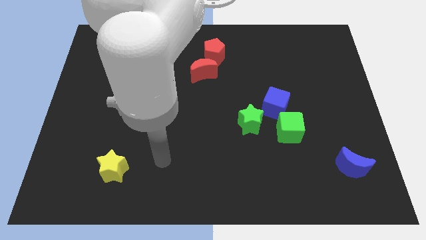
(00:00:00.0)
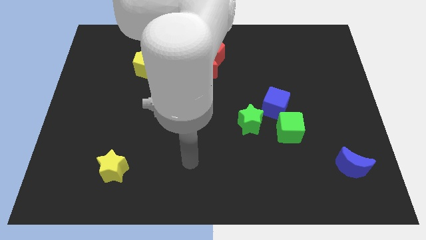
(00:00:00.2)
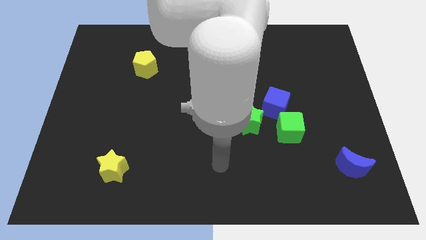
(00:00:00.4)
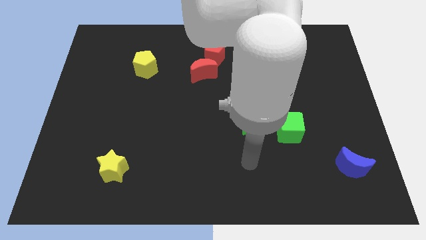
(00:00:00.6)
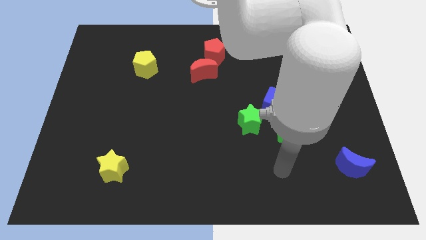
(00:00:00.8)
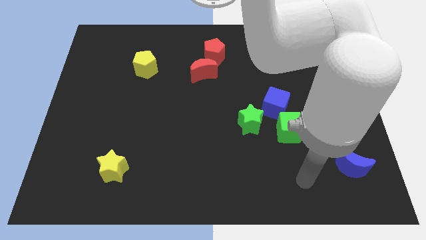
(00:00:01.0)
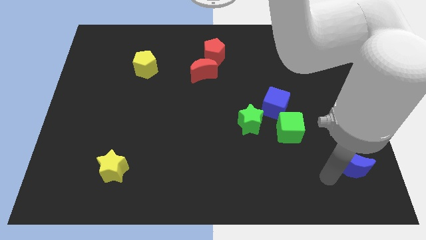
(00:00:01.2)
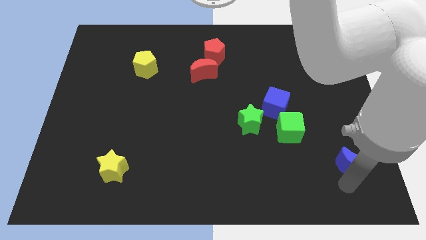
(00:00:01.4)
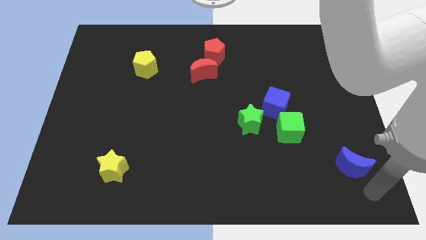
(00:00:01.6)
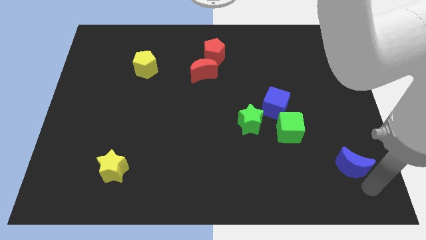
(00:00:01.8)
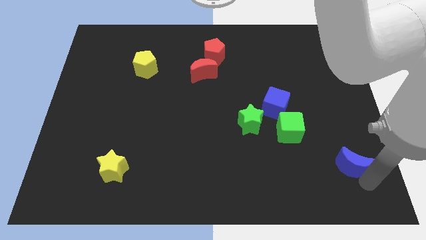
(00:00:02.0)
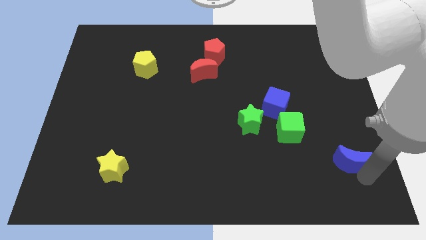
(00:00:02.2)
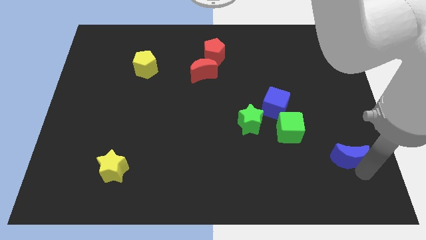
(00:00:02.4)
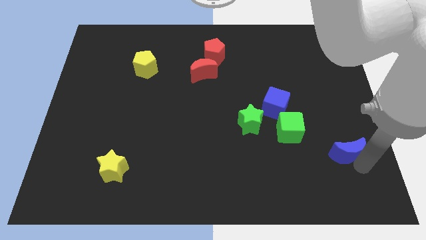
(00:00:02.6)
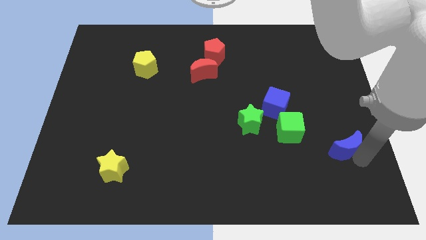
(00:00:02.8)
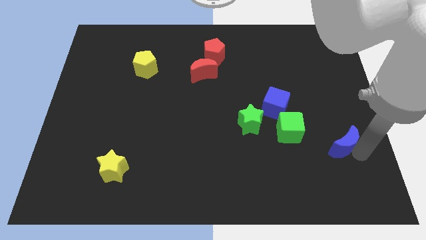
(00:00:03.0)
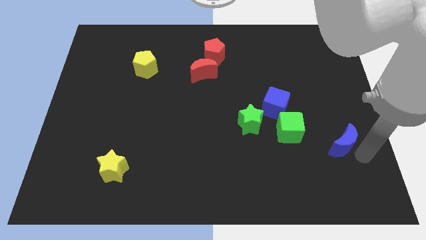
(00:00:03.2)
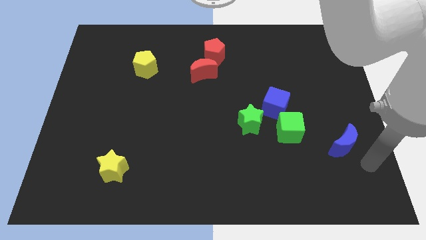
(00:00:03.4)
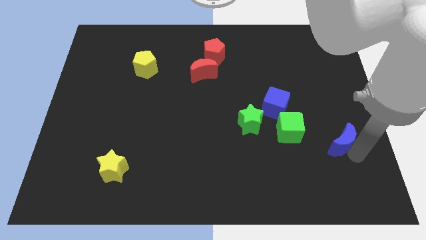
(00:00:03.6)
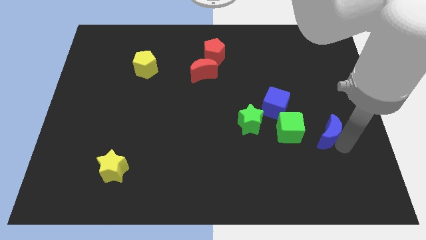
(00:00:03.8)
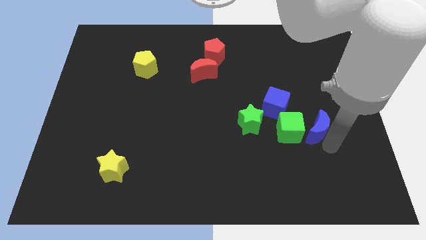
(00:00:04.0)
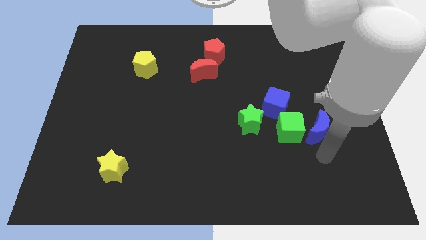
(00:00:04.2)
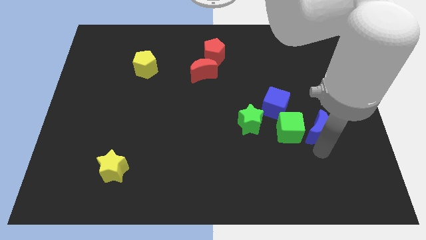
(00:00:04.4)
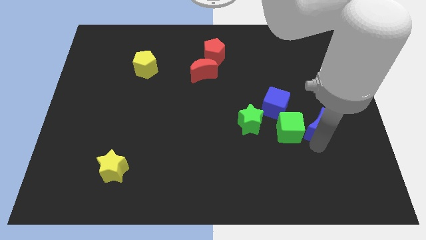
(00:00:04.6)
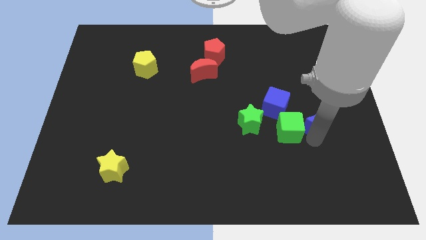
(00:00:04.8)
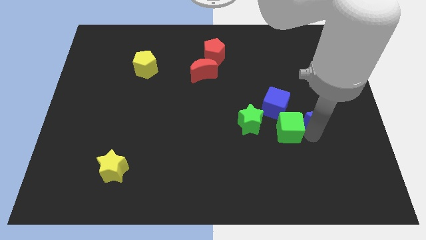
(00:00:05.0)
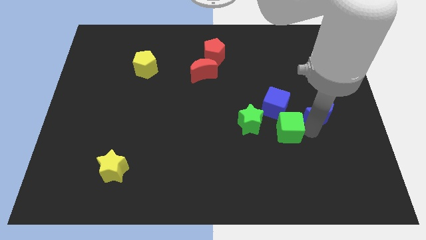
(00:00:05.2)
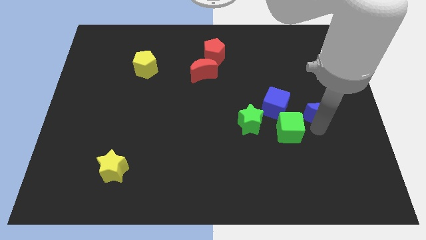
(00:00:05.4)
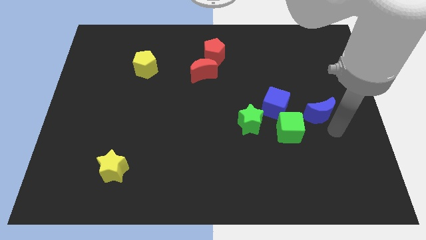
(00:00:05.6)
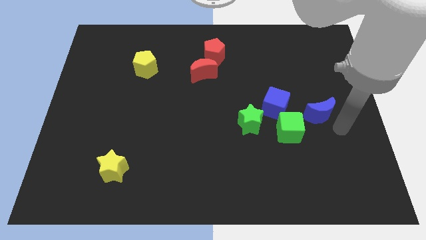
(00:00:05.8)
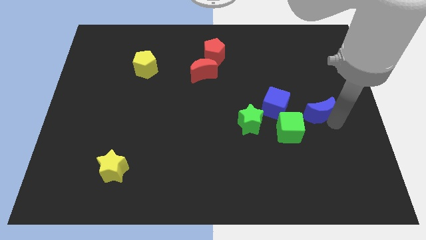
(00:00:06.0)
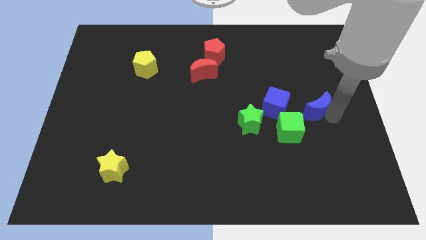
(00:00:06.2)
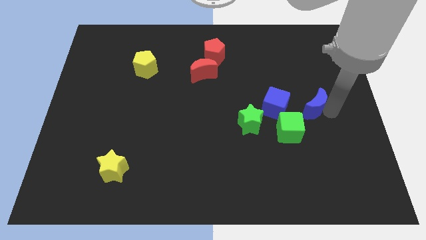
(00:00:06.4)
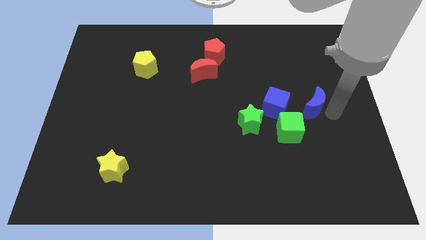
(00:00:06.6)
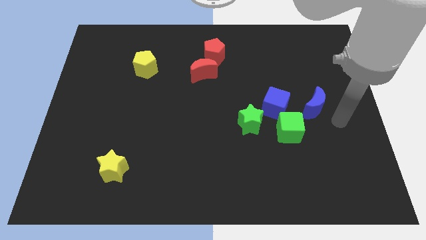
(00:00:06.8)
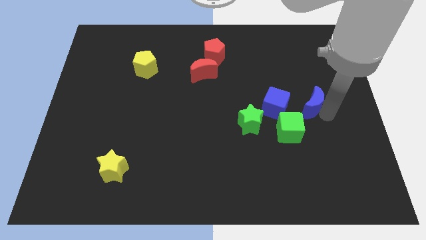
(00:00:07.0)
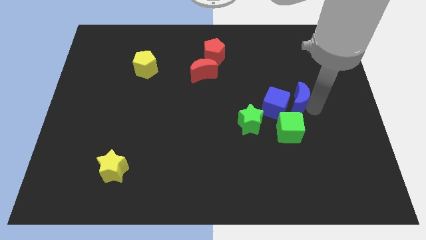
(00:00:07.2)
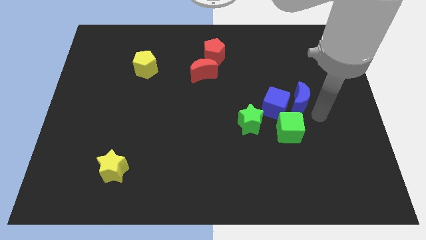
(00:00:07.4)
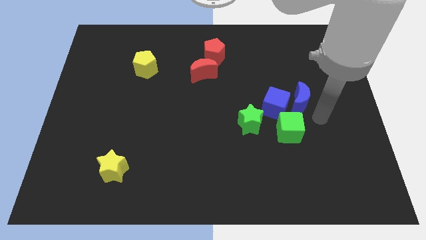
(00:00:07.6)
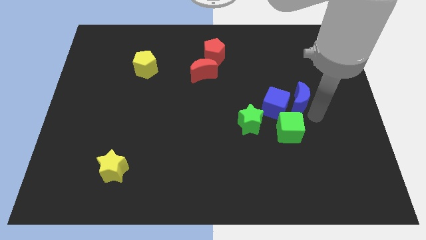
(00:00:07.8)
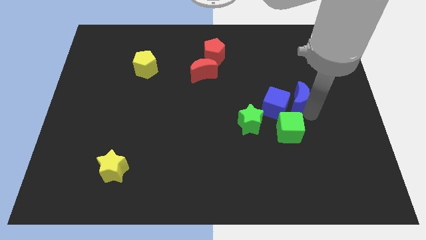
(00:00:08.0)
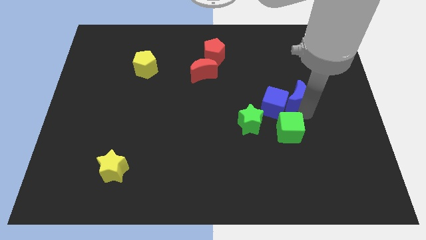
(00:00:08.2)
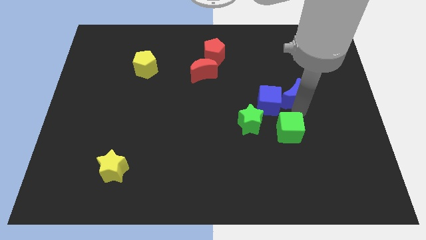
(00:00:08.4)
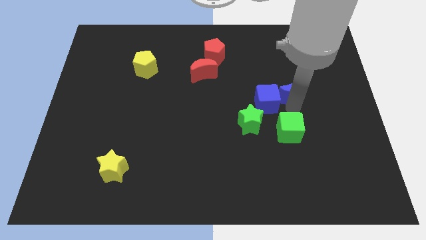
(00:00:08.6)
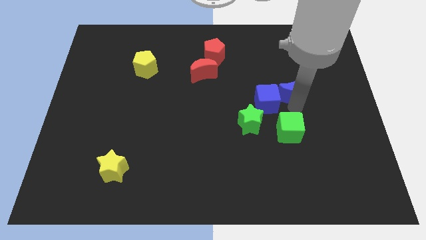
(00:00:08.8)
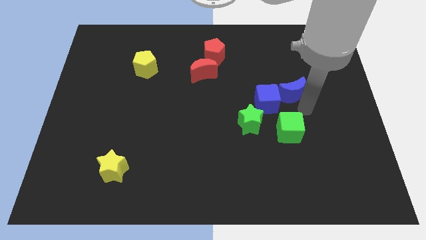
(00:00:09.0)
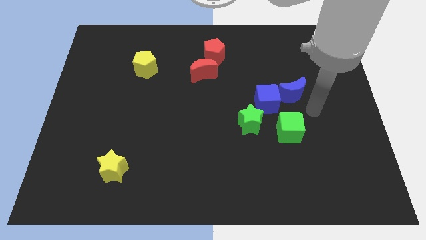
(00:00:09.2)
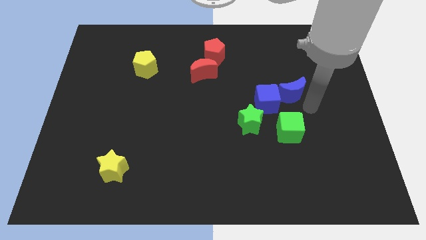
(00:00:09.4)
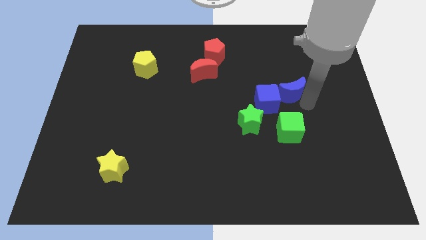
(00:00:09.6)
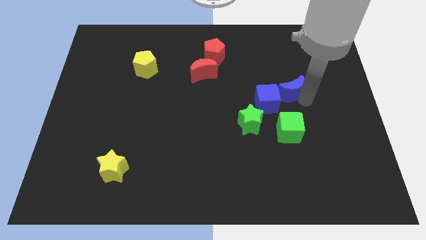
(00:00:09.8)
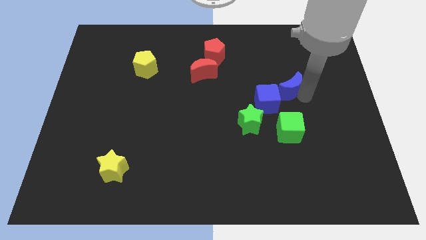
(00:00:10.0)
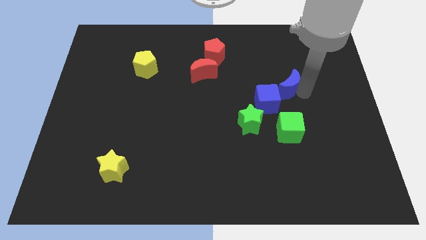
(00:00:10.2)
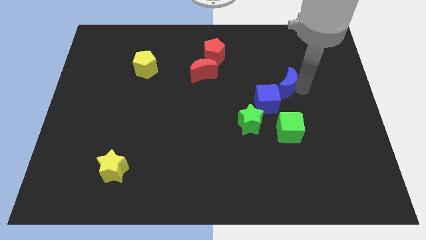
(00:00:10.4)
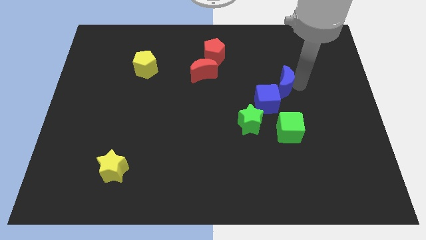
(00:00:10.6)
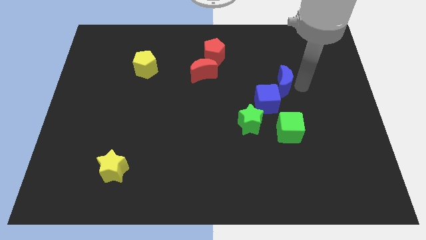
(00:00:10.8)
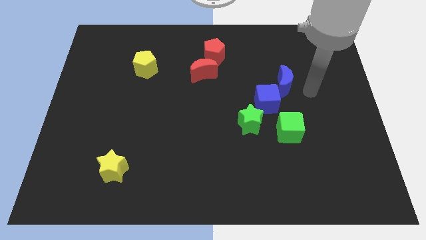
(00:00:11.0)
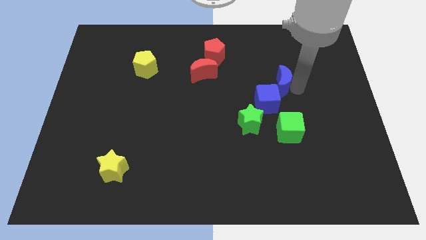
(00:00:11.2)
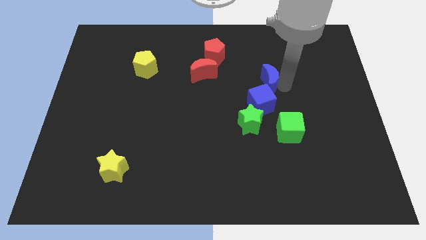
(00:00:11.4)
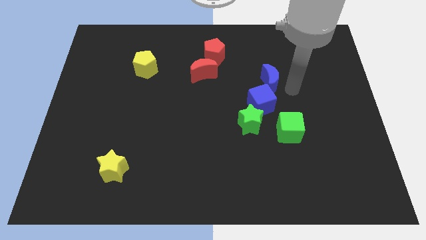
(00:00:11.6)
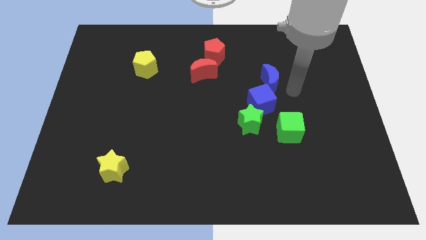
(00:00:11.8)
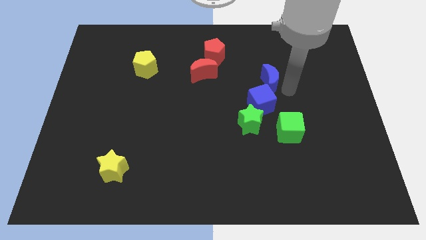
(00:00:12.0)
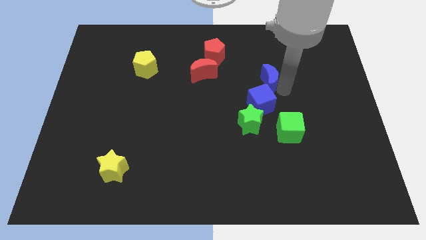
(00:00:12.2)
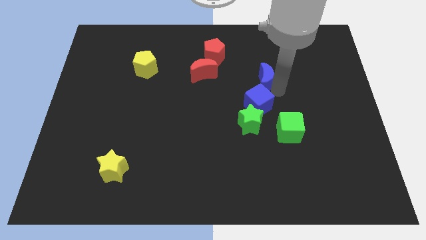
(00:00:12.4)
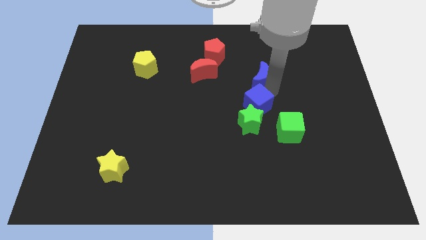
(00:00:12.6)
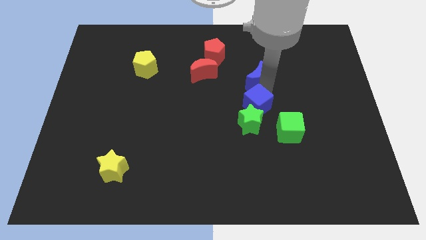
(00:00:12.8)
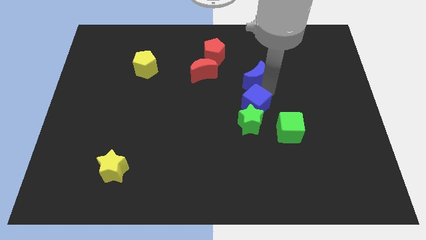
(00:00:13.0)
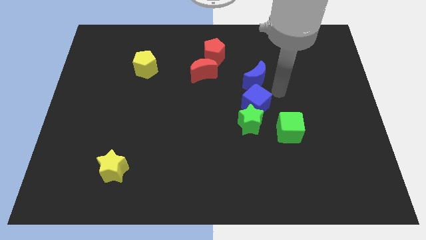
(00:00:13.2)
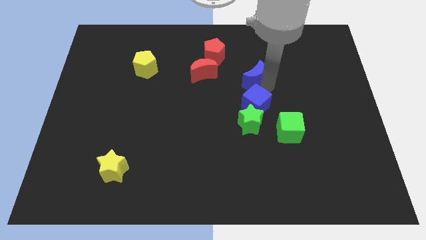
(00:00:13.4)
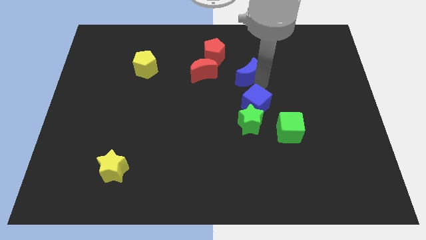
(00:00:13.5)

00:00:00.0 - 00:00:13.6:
move the blue moon to the bottom right of the red pentagon

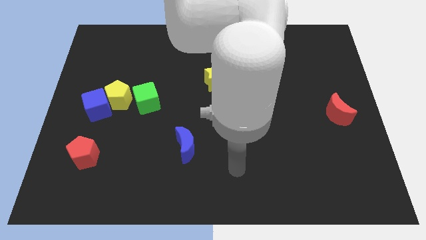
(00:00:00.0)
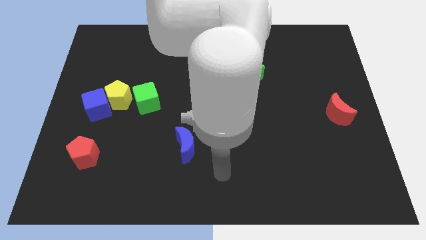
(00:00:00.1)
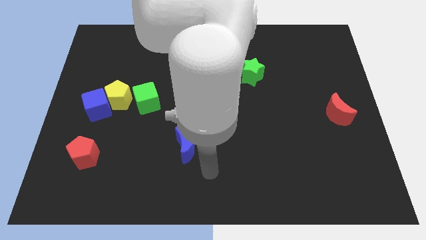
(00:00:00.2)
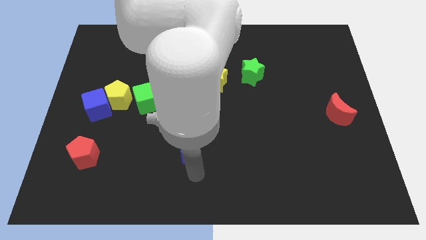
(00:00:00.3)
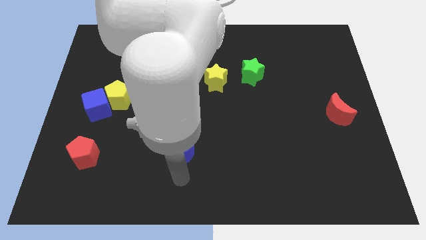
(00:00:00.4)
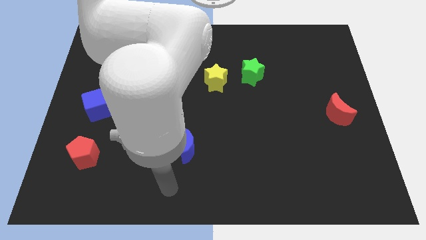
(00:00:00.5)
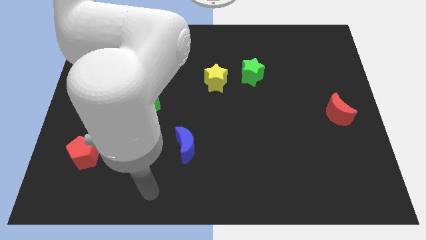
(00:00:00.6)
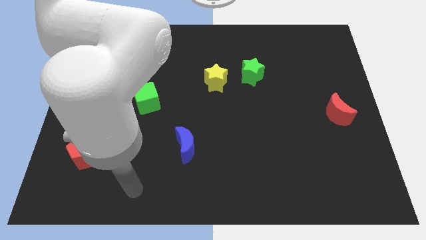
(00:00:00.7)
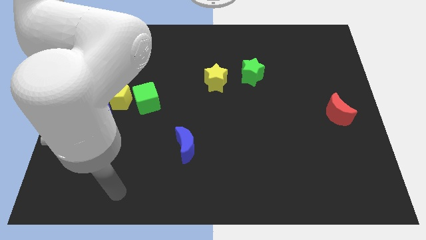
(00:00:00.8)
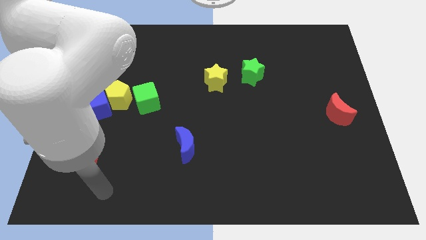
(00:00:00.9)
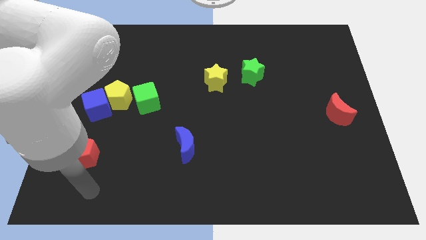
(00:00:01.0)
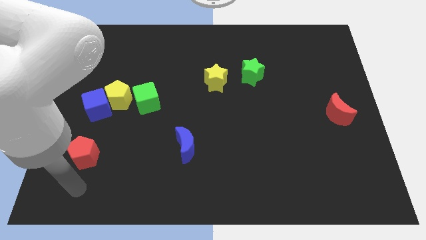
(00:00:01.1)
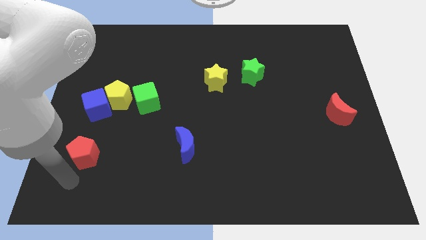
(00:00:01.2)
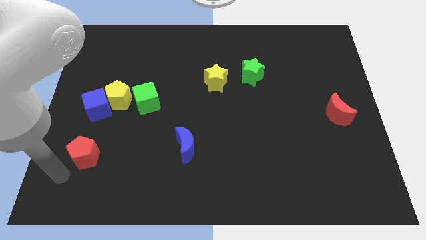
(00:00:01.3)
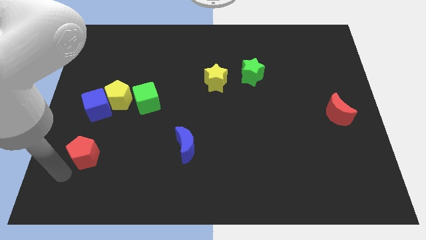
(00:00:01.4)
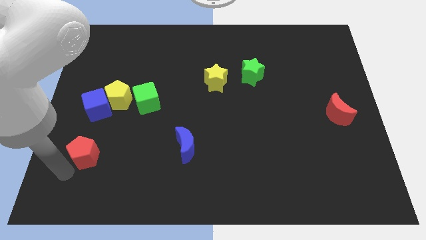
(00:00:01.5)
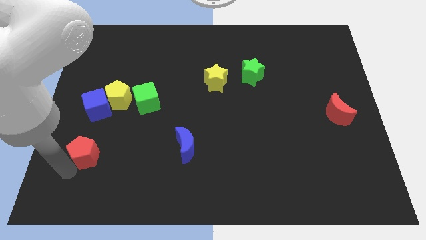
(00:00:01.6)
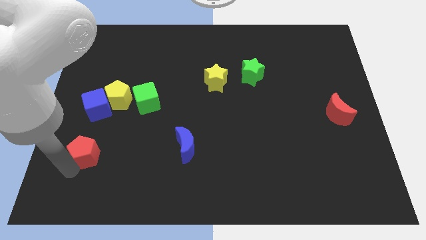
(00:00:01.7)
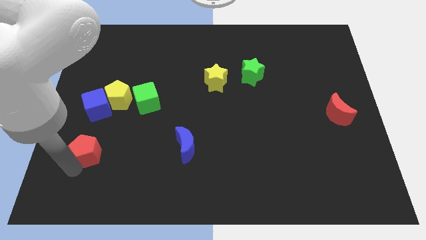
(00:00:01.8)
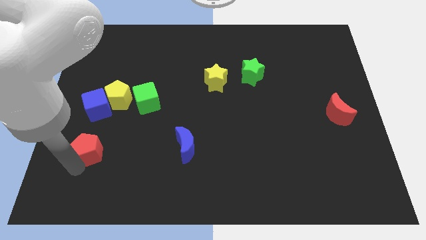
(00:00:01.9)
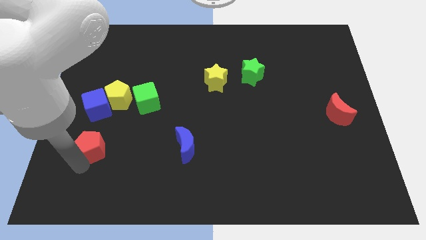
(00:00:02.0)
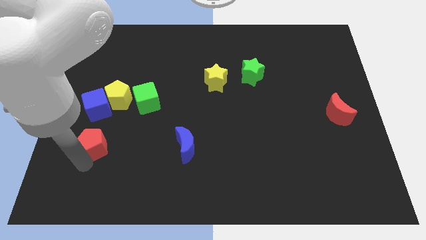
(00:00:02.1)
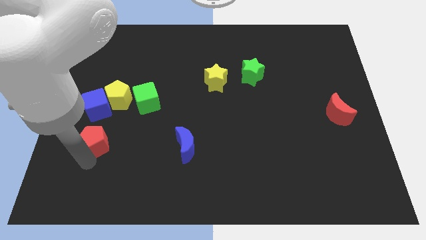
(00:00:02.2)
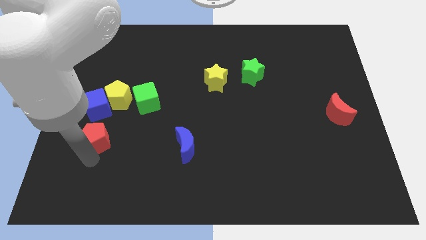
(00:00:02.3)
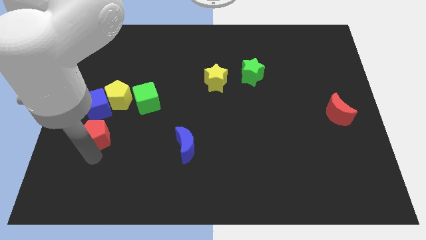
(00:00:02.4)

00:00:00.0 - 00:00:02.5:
put the red pentagon to the bottom right side of the blue cube
